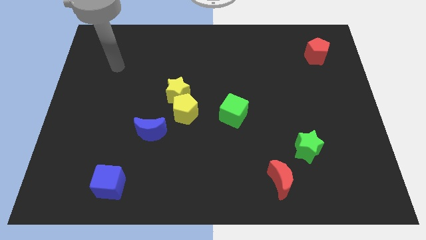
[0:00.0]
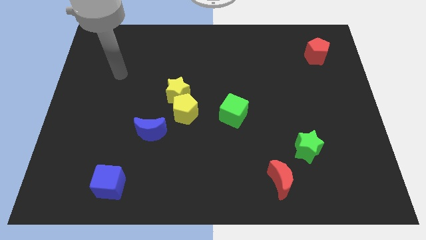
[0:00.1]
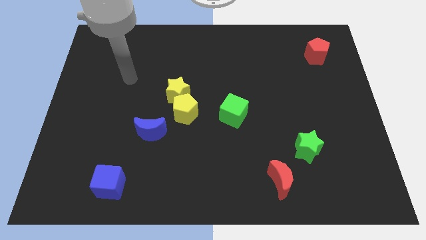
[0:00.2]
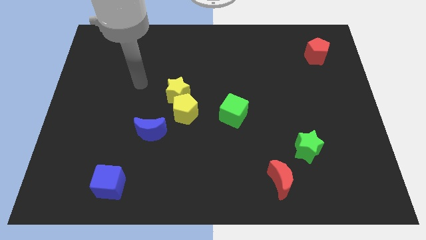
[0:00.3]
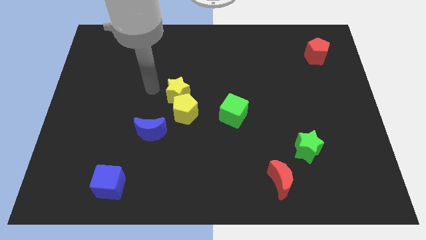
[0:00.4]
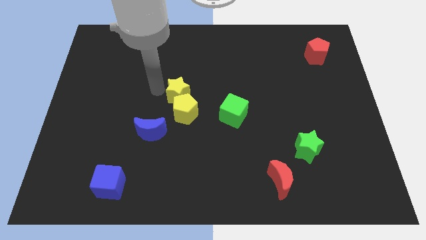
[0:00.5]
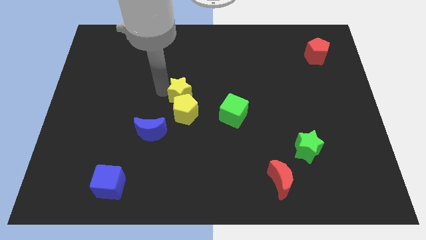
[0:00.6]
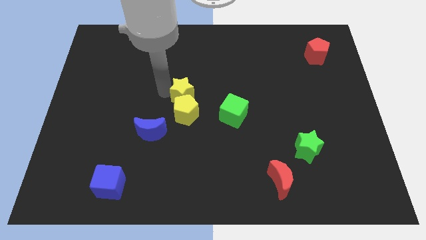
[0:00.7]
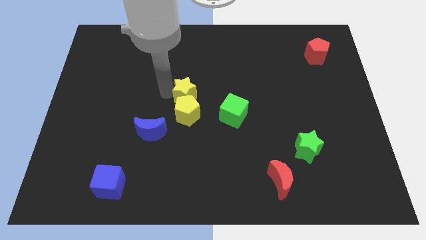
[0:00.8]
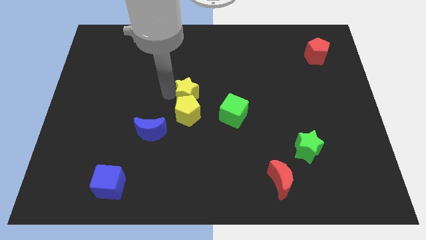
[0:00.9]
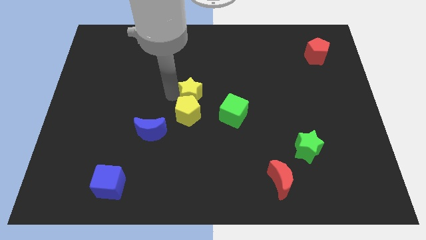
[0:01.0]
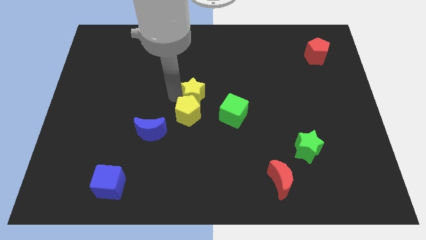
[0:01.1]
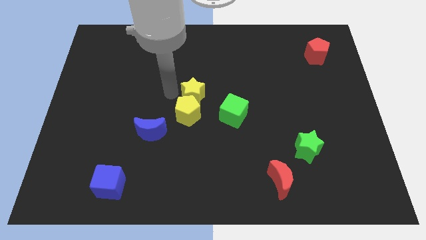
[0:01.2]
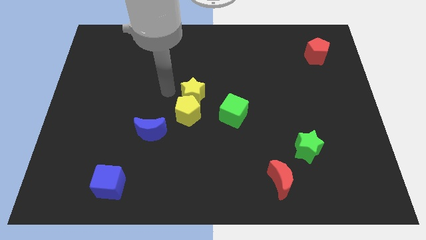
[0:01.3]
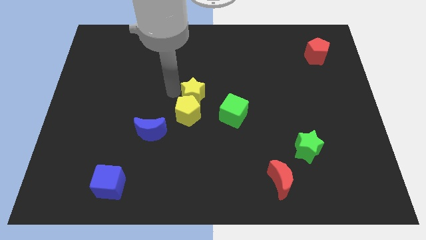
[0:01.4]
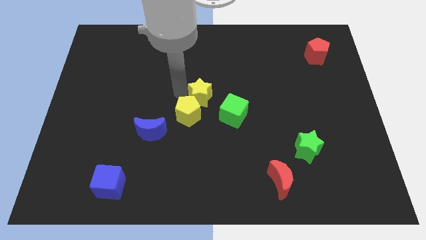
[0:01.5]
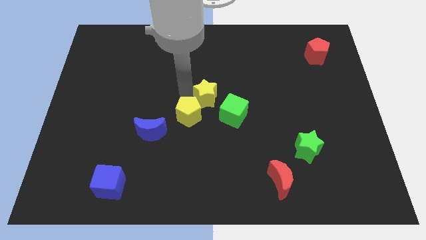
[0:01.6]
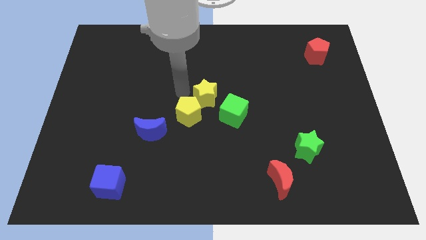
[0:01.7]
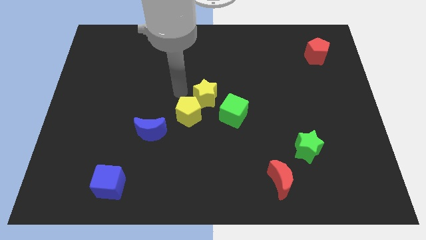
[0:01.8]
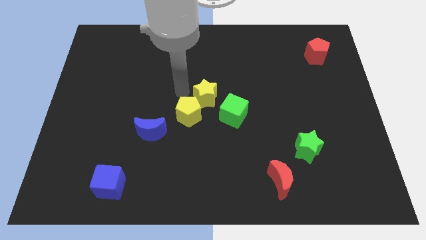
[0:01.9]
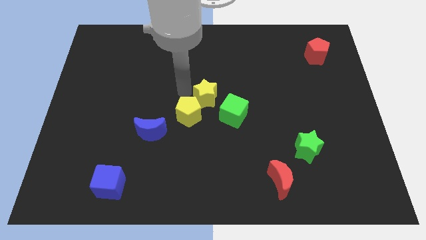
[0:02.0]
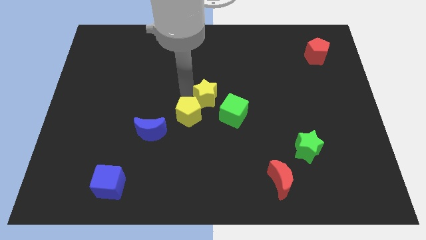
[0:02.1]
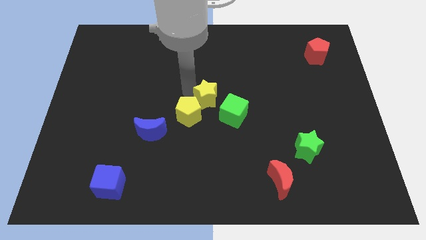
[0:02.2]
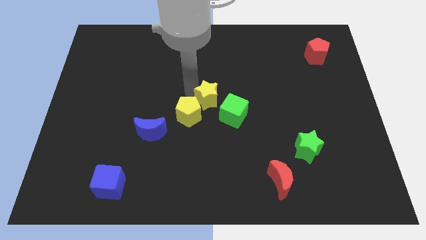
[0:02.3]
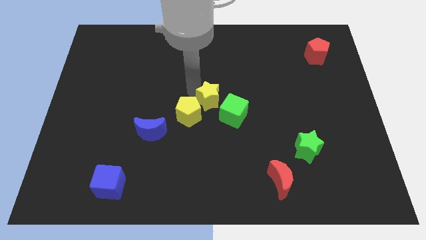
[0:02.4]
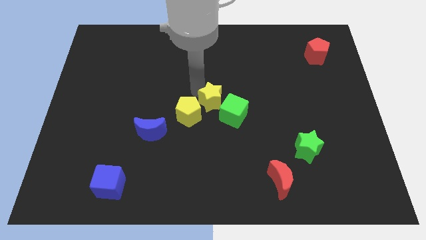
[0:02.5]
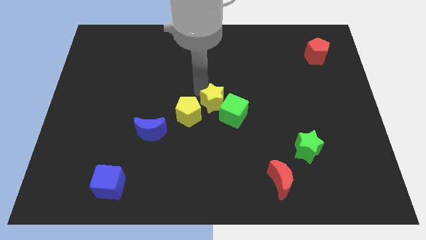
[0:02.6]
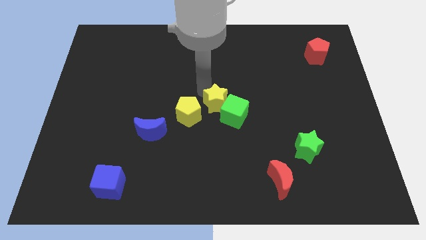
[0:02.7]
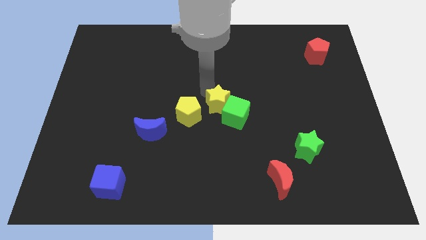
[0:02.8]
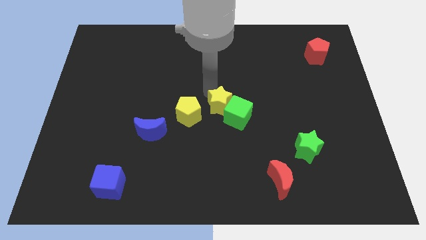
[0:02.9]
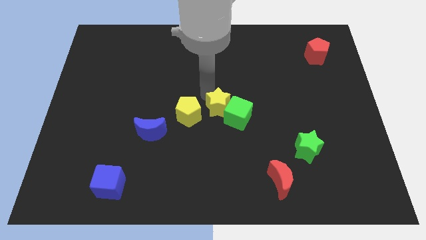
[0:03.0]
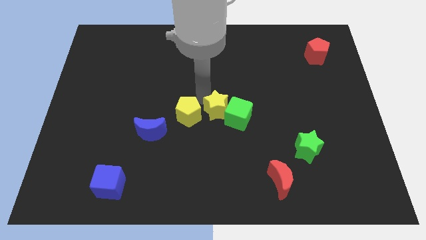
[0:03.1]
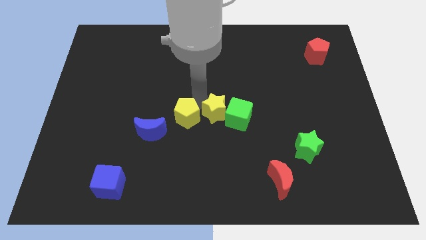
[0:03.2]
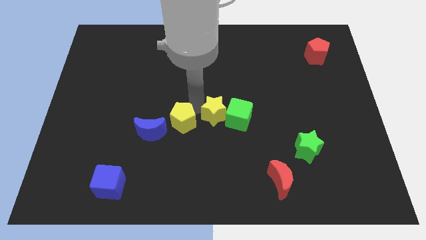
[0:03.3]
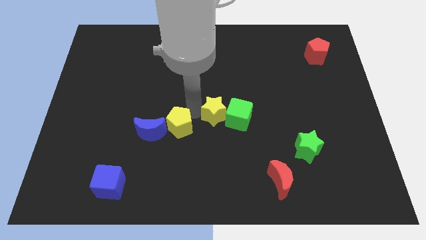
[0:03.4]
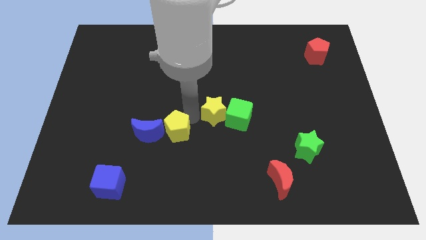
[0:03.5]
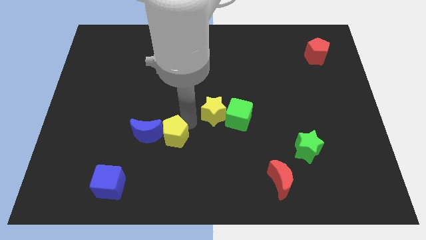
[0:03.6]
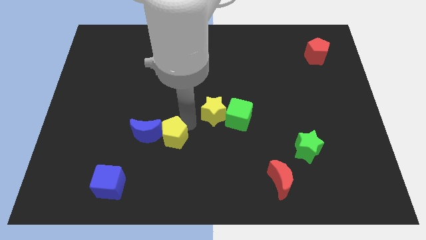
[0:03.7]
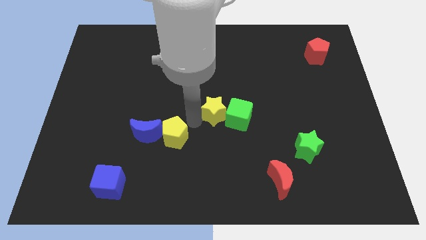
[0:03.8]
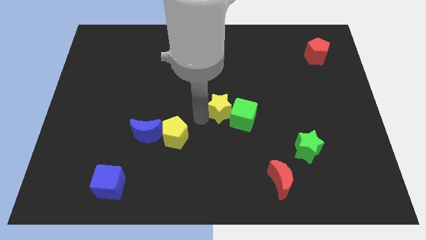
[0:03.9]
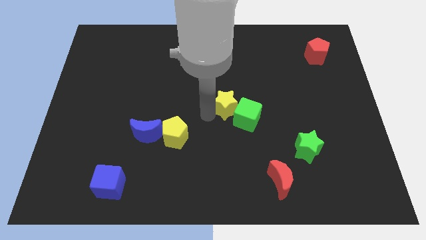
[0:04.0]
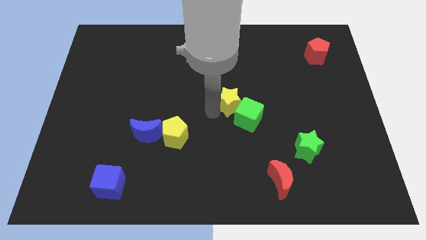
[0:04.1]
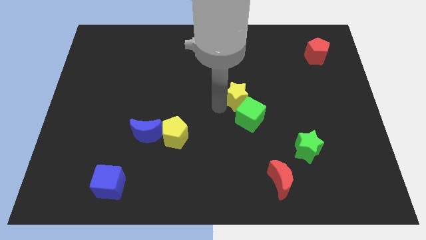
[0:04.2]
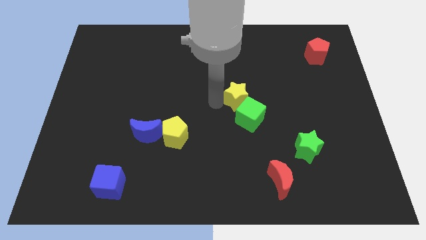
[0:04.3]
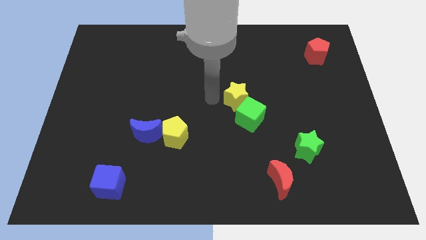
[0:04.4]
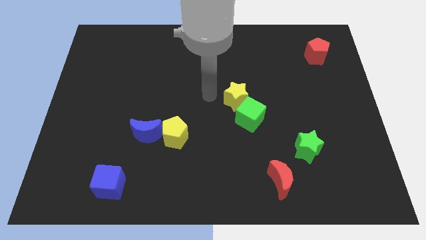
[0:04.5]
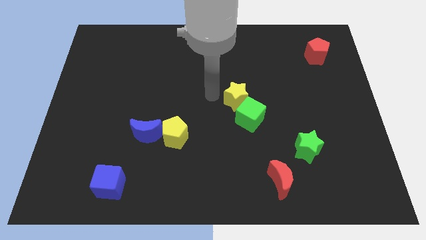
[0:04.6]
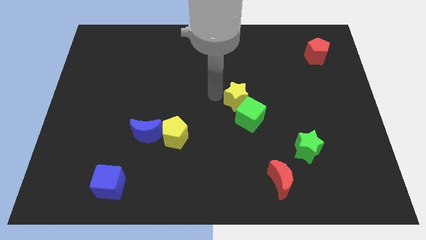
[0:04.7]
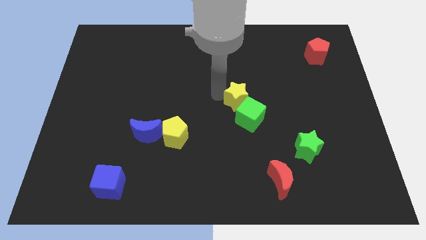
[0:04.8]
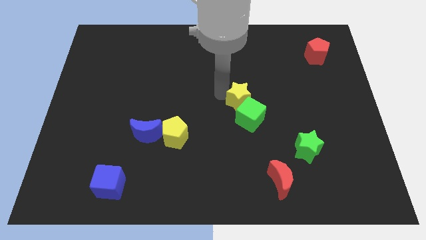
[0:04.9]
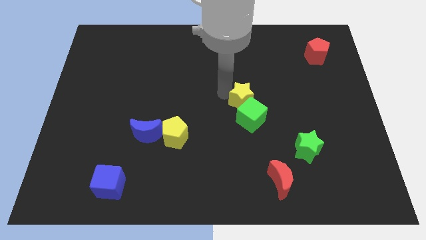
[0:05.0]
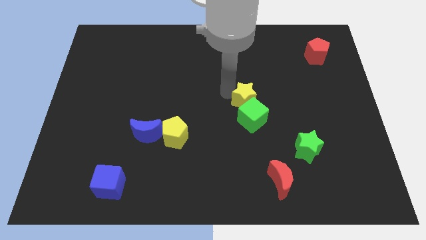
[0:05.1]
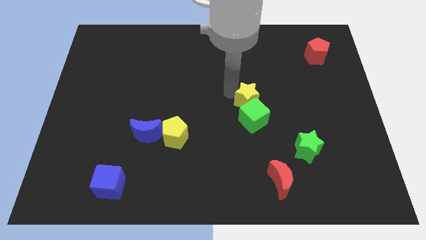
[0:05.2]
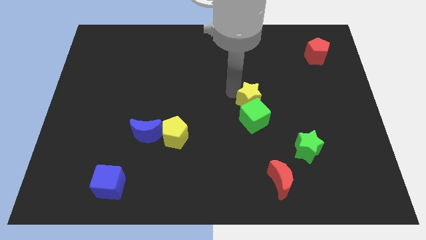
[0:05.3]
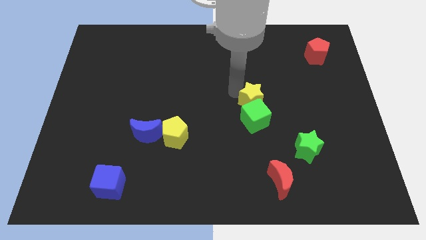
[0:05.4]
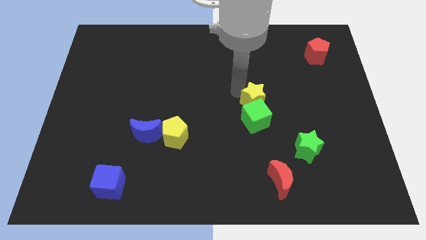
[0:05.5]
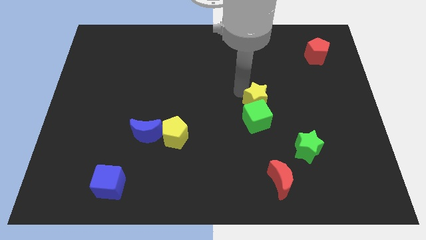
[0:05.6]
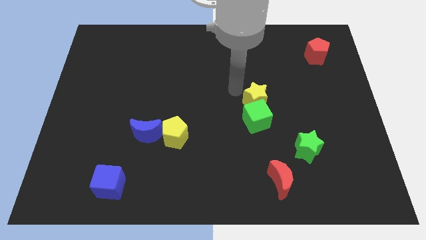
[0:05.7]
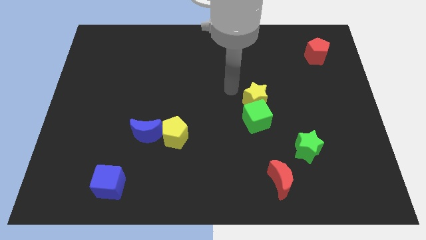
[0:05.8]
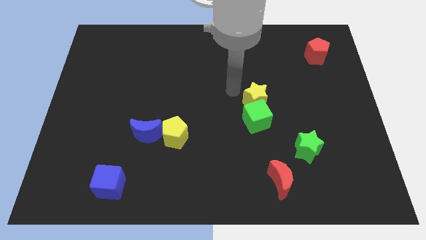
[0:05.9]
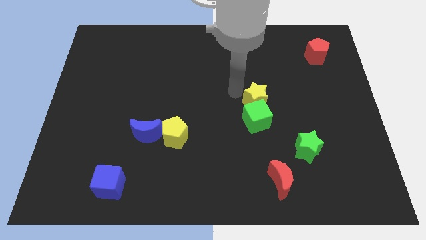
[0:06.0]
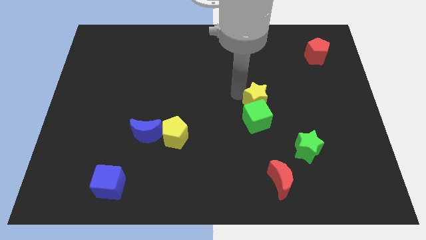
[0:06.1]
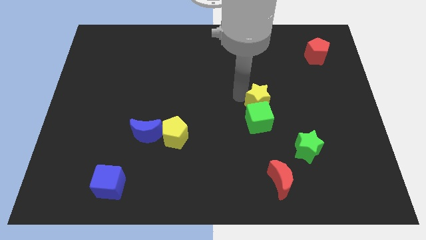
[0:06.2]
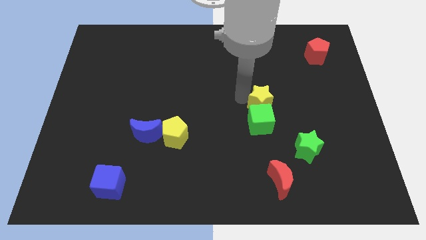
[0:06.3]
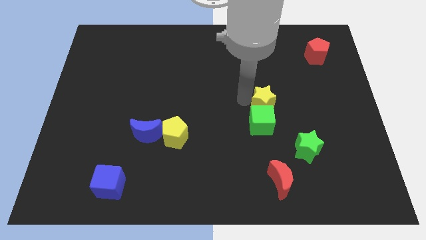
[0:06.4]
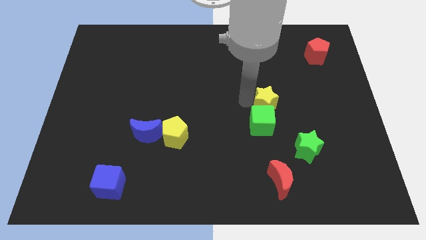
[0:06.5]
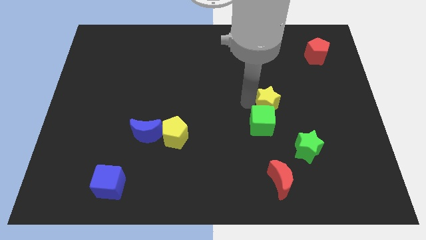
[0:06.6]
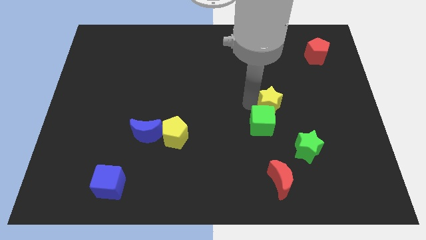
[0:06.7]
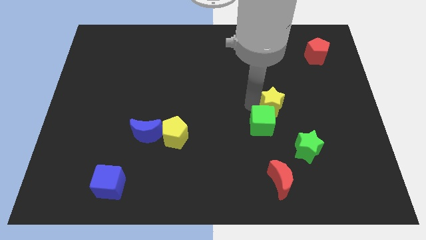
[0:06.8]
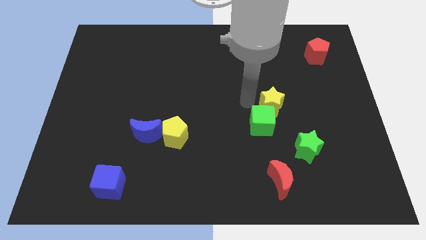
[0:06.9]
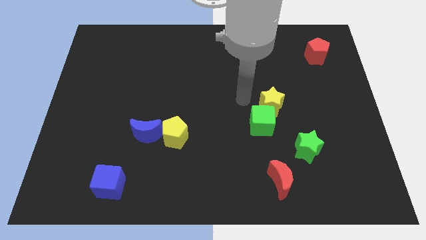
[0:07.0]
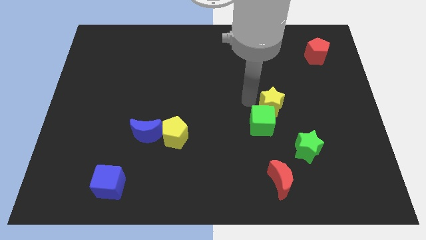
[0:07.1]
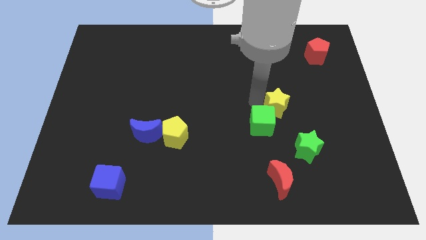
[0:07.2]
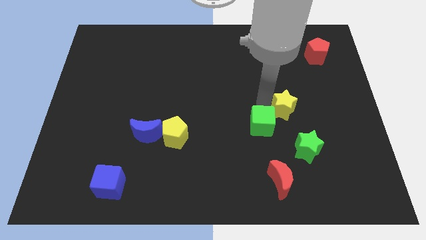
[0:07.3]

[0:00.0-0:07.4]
move the yellow star above the green star

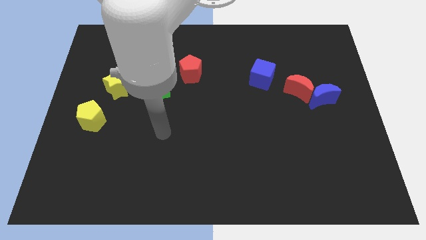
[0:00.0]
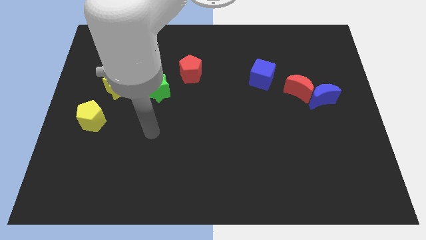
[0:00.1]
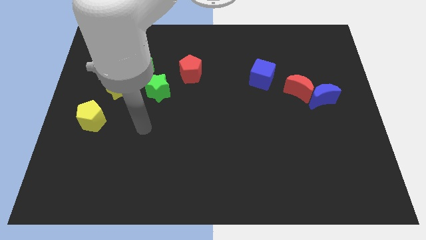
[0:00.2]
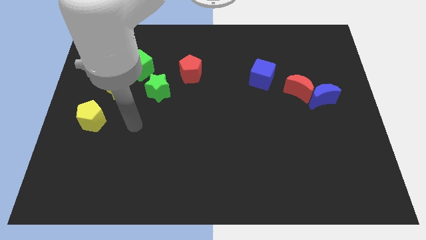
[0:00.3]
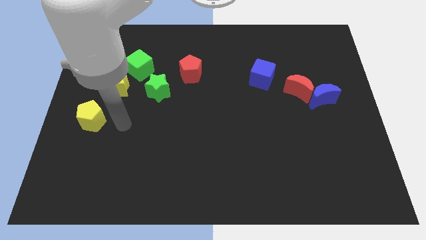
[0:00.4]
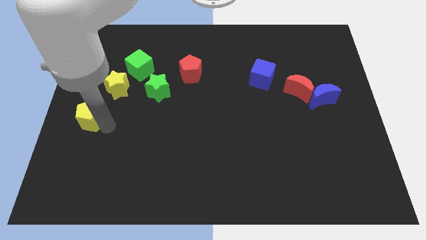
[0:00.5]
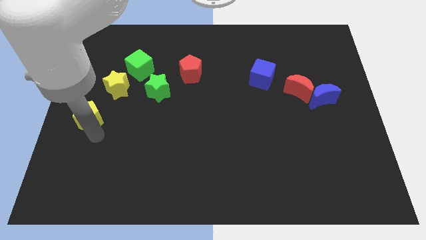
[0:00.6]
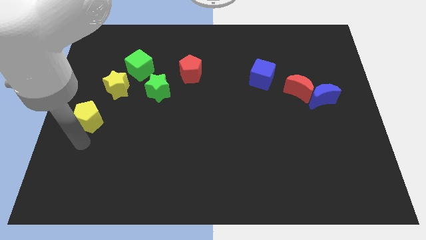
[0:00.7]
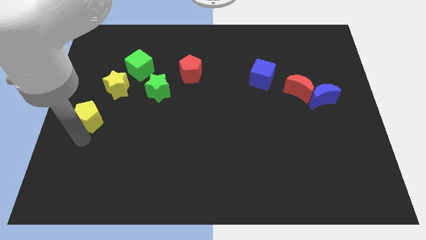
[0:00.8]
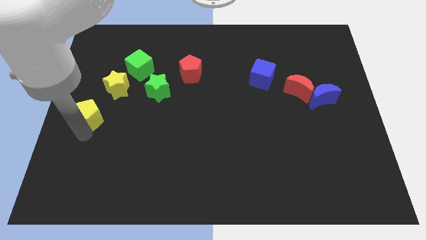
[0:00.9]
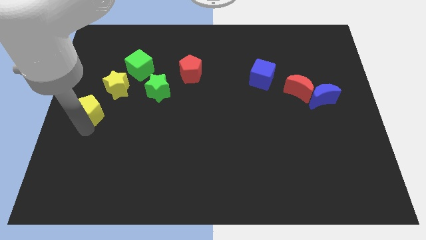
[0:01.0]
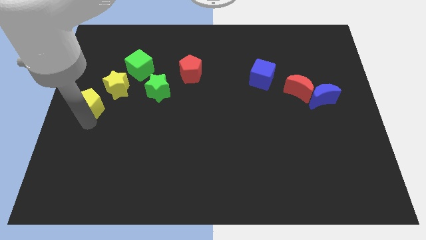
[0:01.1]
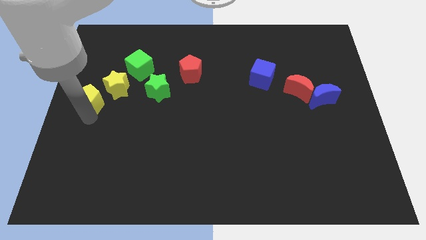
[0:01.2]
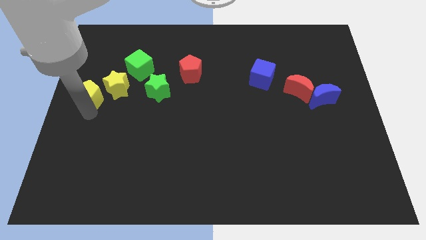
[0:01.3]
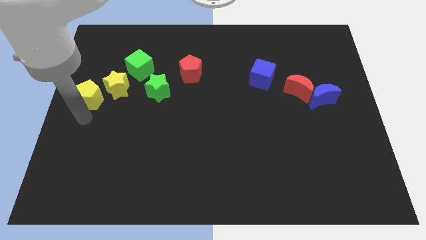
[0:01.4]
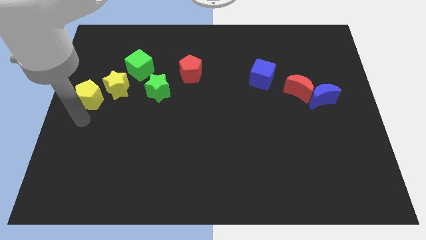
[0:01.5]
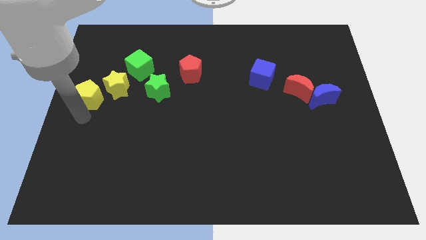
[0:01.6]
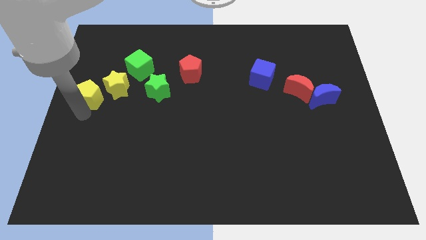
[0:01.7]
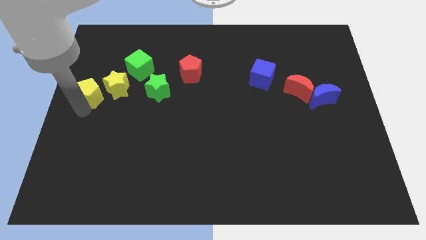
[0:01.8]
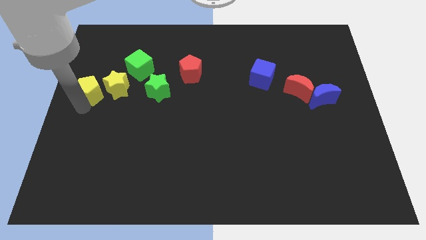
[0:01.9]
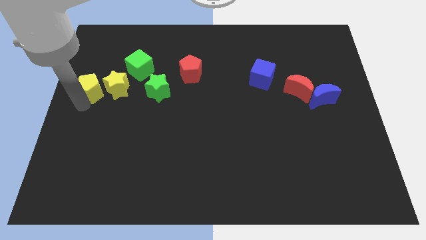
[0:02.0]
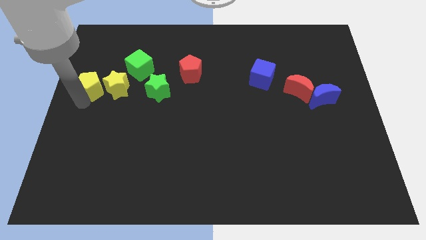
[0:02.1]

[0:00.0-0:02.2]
move the yellow pentagon to the top left of the yellow star
